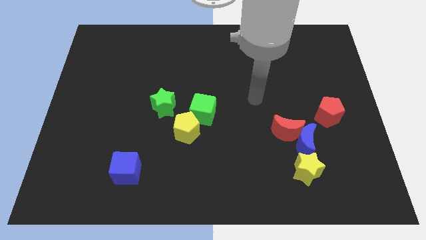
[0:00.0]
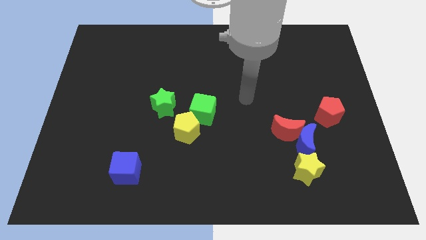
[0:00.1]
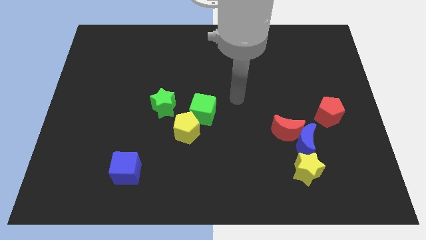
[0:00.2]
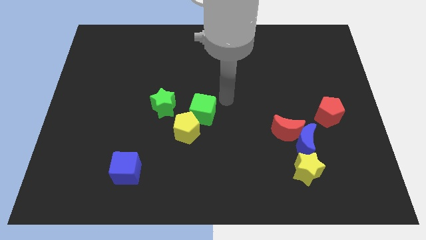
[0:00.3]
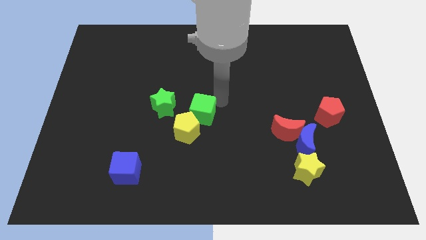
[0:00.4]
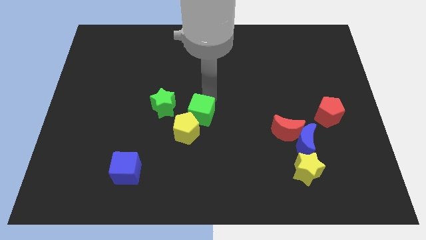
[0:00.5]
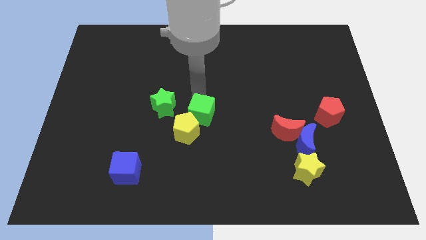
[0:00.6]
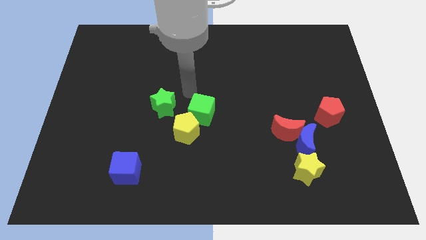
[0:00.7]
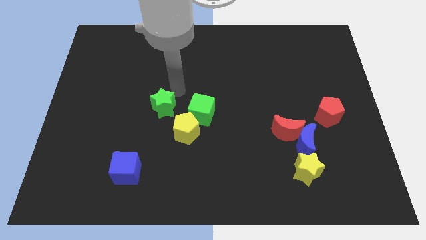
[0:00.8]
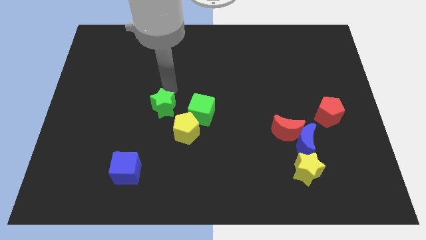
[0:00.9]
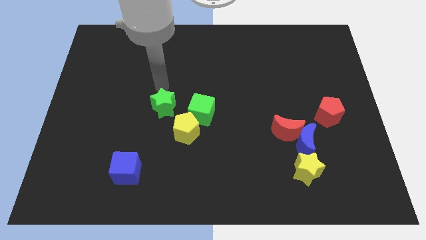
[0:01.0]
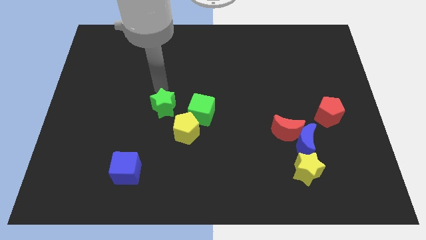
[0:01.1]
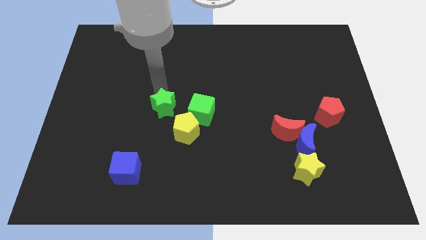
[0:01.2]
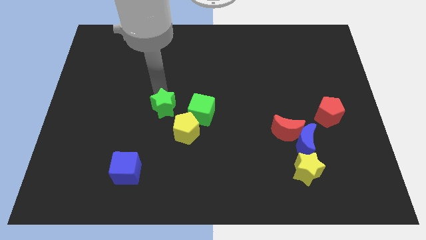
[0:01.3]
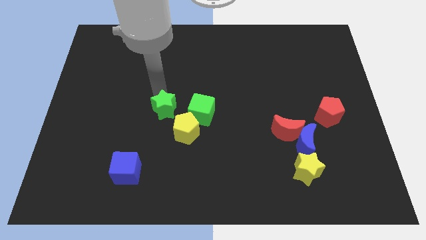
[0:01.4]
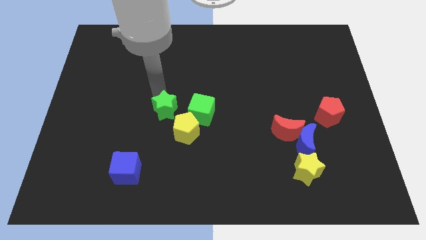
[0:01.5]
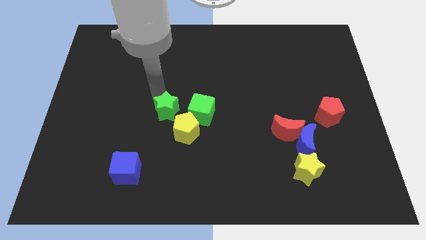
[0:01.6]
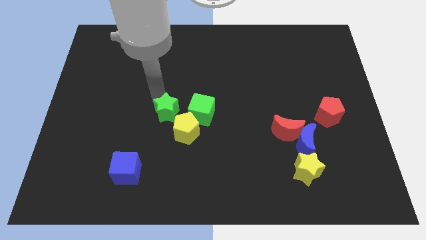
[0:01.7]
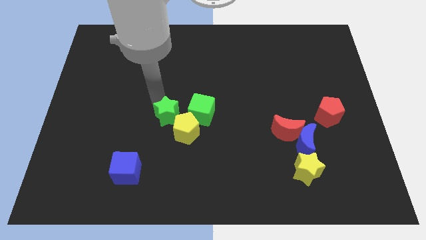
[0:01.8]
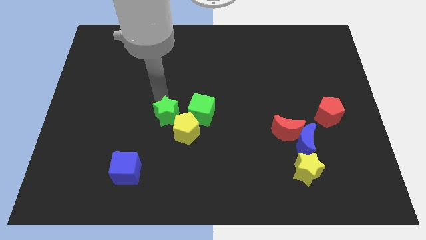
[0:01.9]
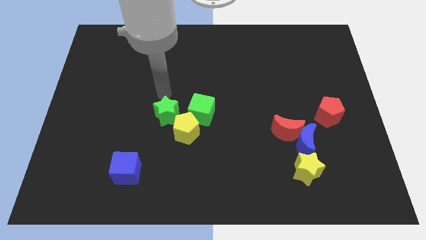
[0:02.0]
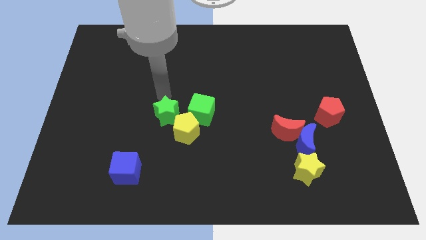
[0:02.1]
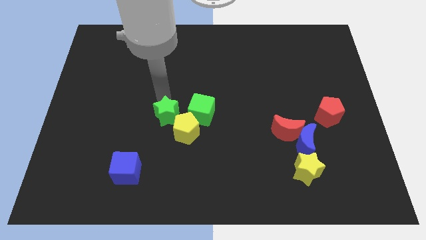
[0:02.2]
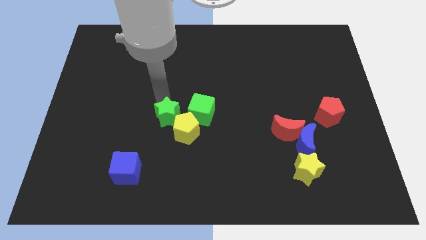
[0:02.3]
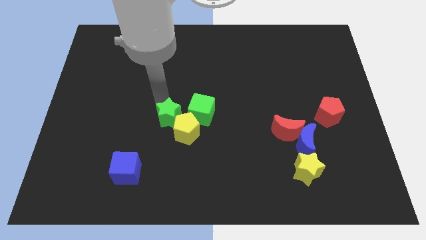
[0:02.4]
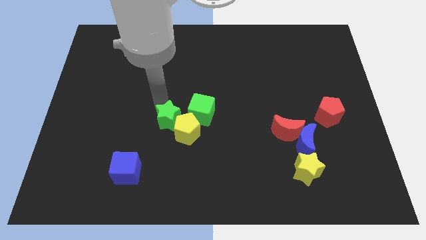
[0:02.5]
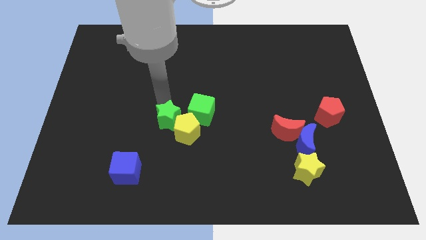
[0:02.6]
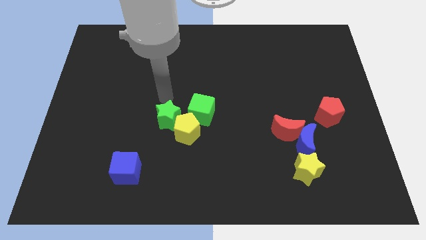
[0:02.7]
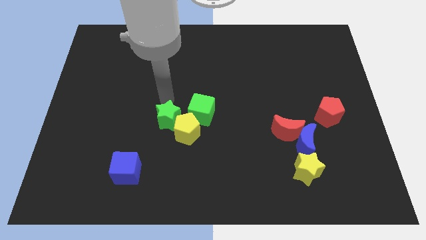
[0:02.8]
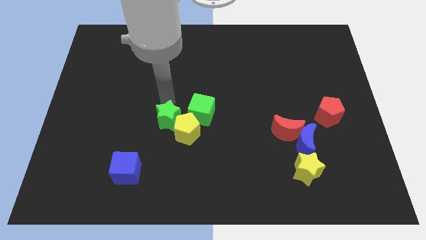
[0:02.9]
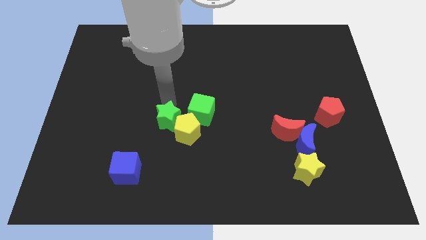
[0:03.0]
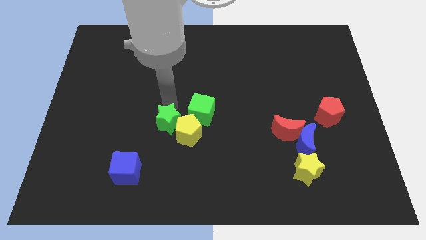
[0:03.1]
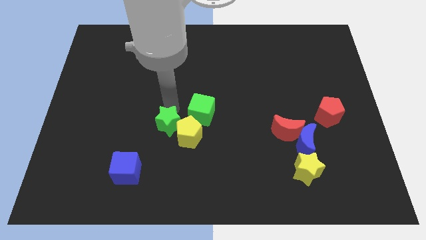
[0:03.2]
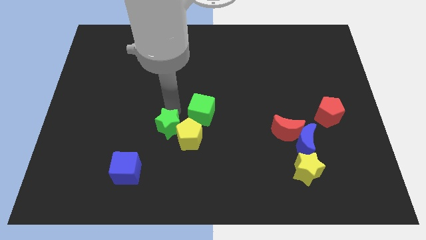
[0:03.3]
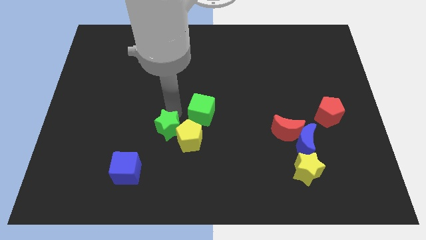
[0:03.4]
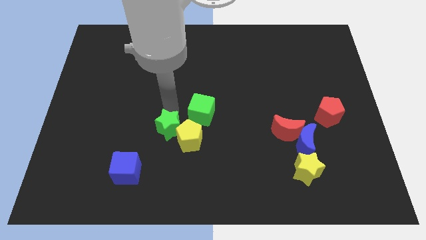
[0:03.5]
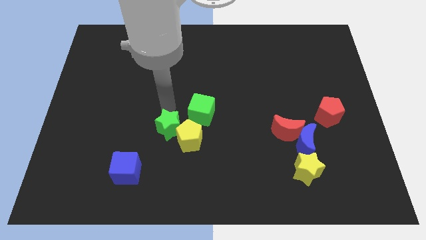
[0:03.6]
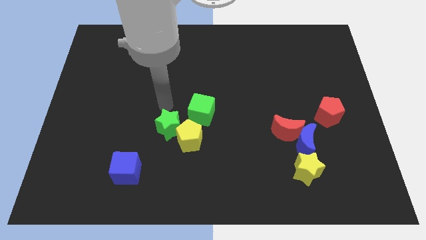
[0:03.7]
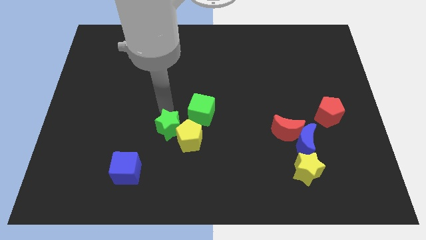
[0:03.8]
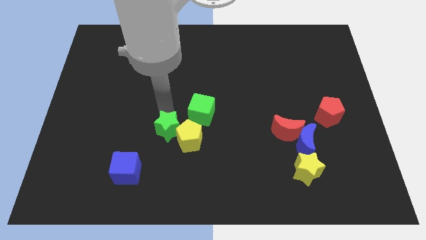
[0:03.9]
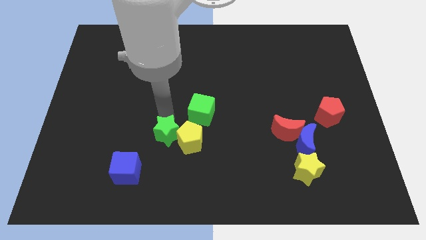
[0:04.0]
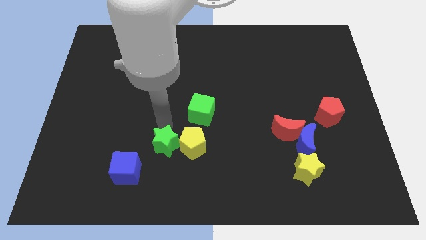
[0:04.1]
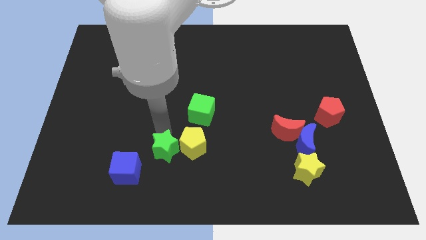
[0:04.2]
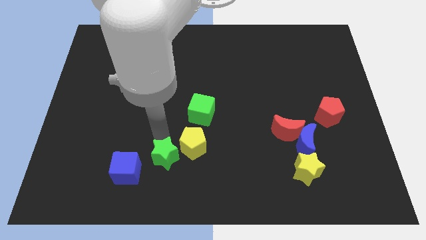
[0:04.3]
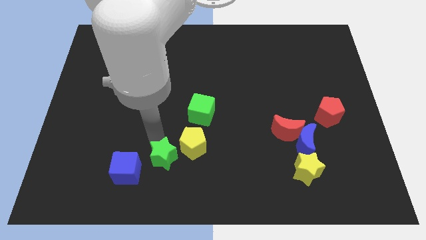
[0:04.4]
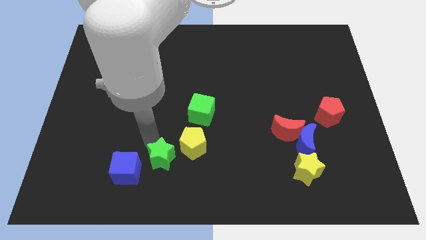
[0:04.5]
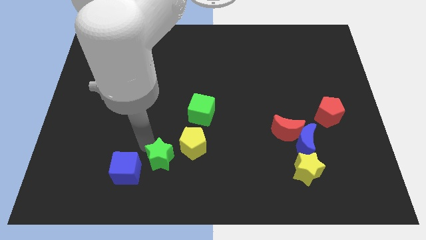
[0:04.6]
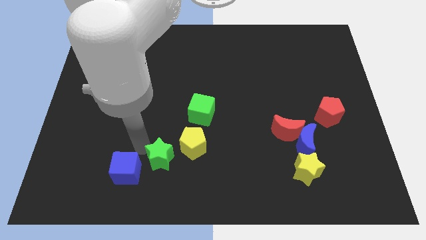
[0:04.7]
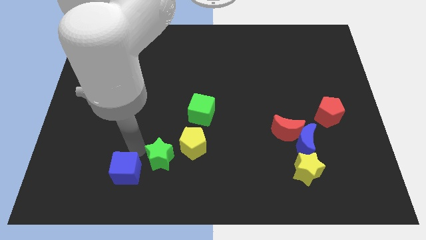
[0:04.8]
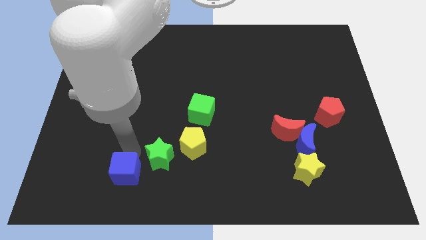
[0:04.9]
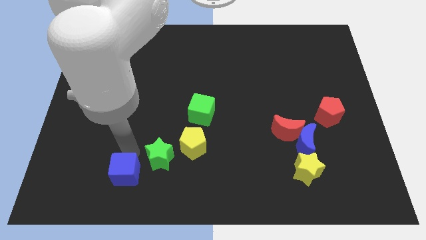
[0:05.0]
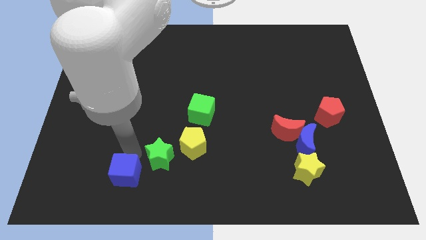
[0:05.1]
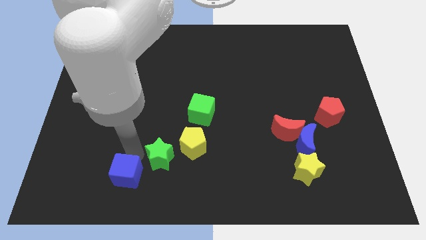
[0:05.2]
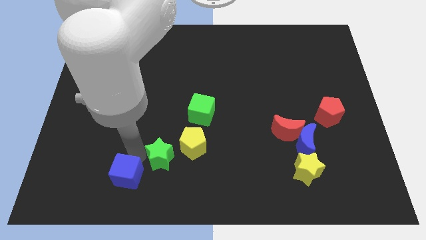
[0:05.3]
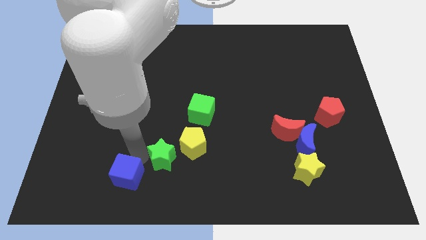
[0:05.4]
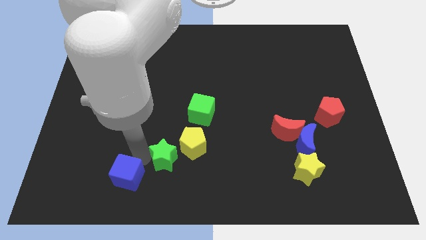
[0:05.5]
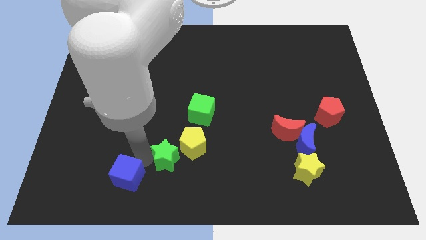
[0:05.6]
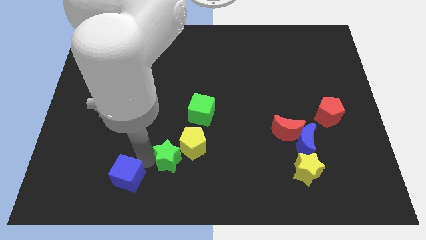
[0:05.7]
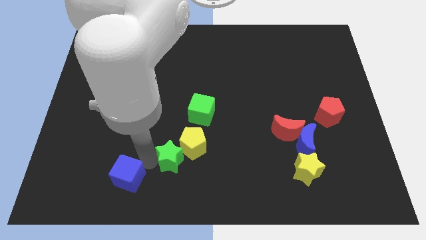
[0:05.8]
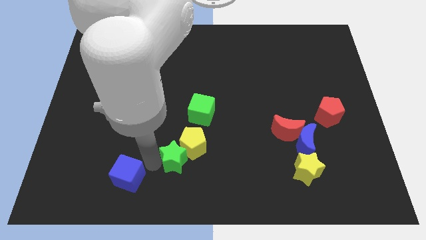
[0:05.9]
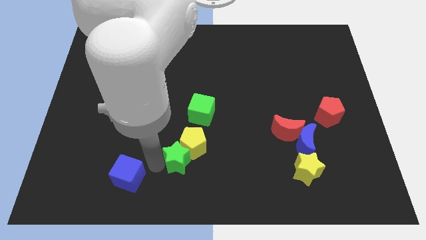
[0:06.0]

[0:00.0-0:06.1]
put the green star to the bottom side
